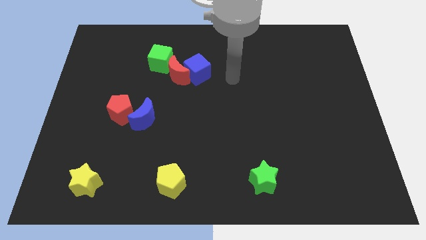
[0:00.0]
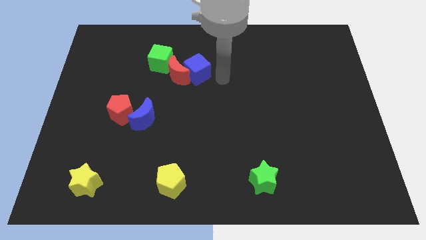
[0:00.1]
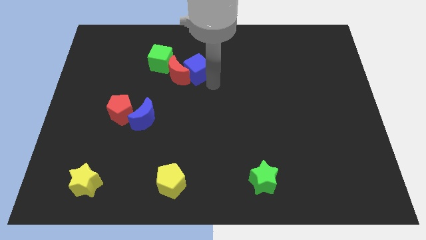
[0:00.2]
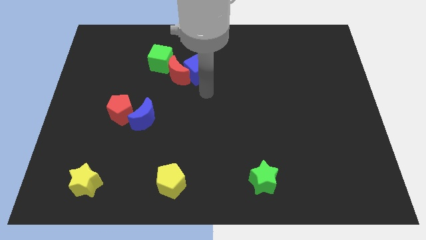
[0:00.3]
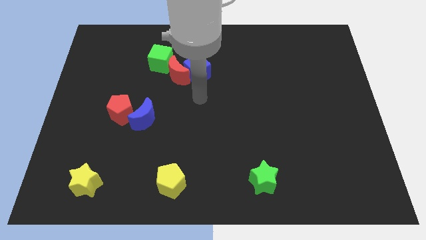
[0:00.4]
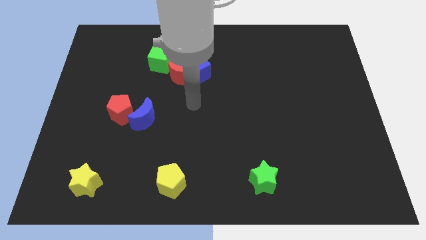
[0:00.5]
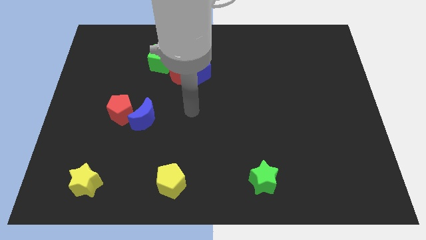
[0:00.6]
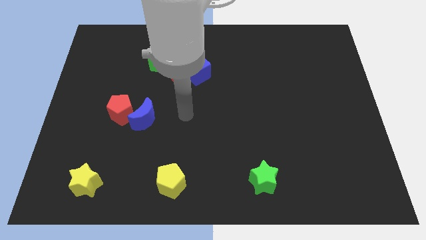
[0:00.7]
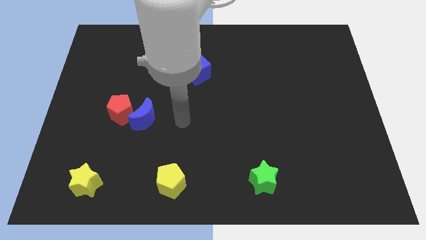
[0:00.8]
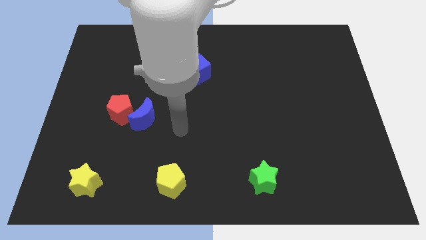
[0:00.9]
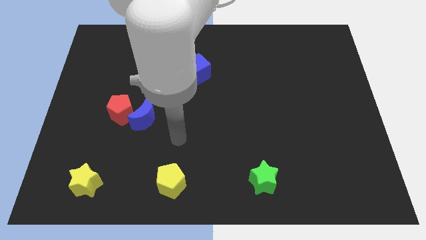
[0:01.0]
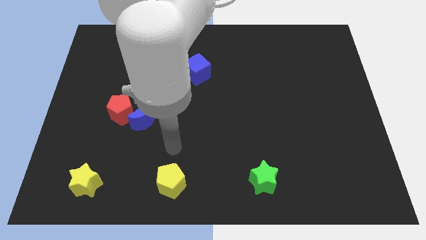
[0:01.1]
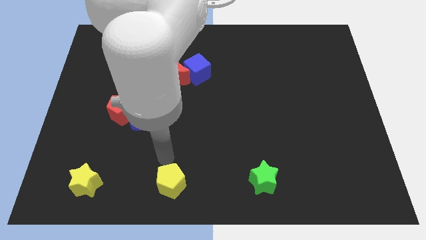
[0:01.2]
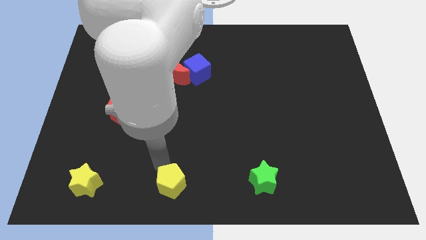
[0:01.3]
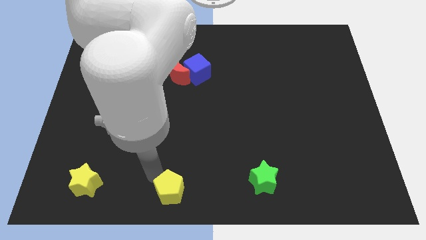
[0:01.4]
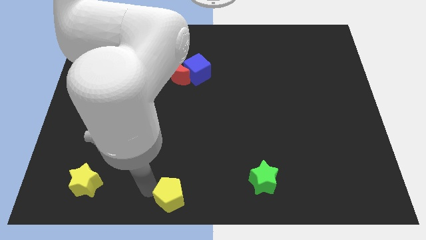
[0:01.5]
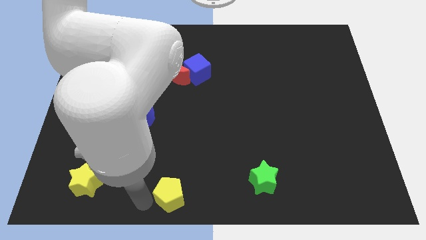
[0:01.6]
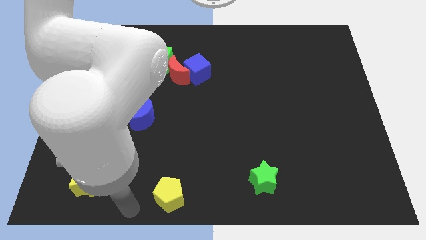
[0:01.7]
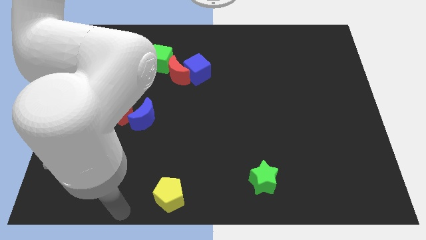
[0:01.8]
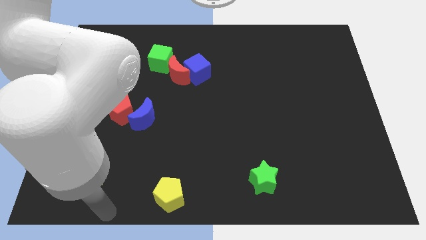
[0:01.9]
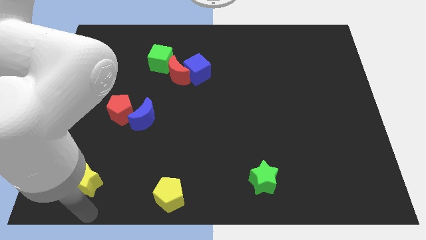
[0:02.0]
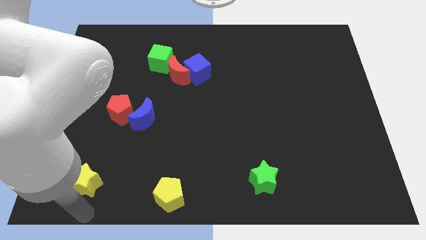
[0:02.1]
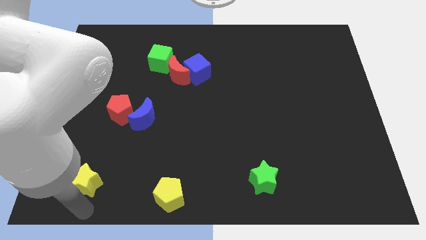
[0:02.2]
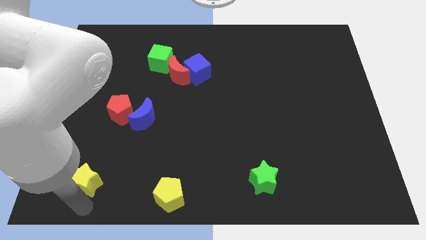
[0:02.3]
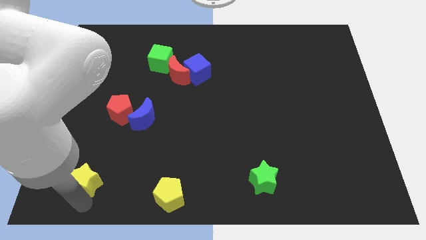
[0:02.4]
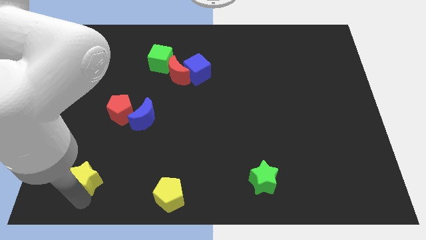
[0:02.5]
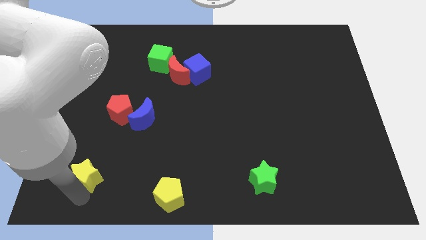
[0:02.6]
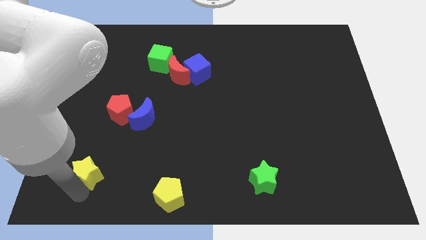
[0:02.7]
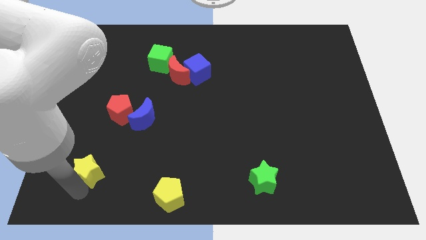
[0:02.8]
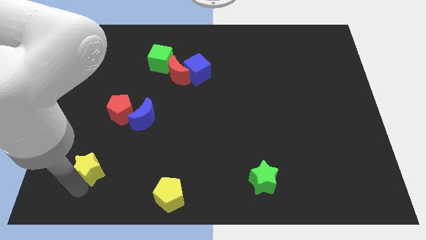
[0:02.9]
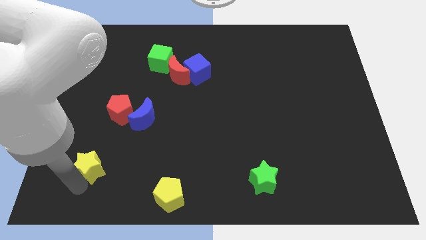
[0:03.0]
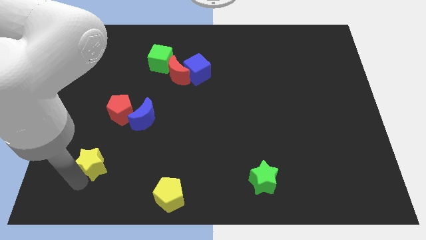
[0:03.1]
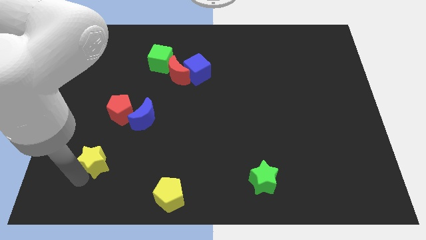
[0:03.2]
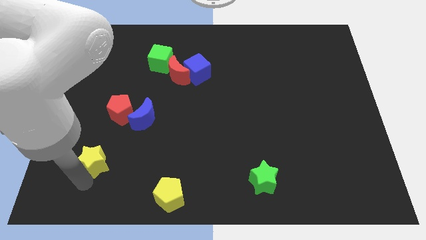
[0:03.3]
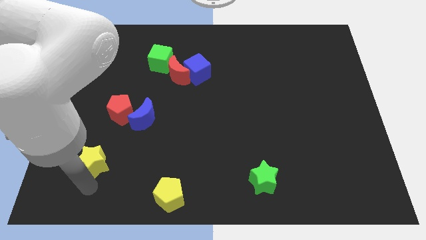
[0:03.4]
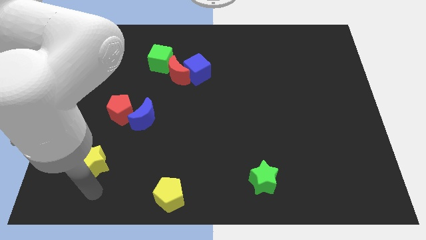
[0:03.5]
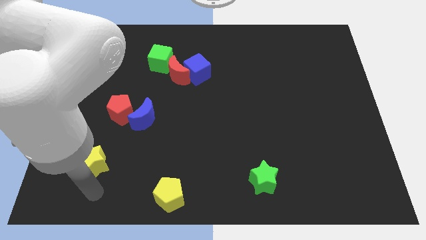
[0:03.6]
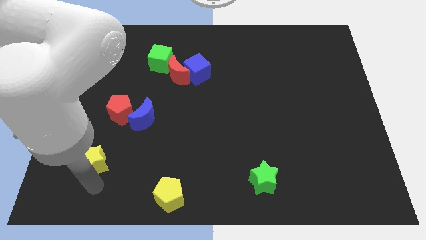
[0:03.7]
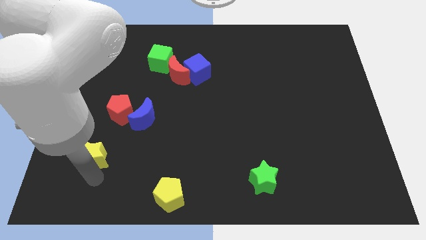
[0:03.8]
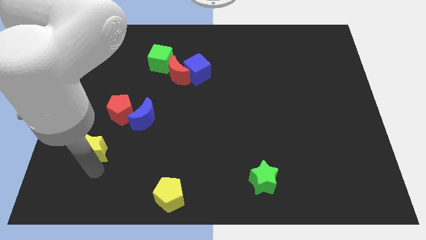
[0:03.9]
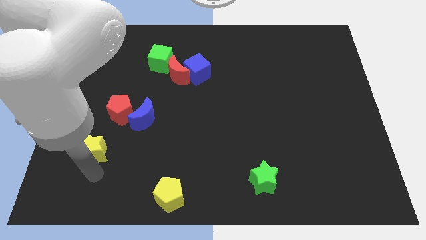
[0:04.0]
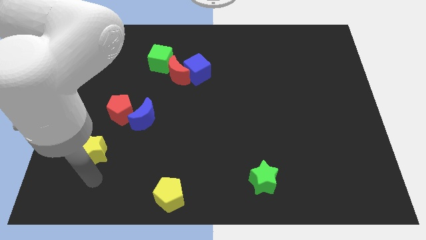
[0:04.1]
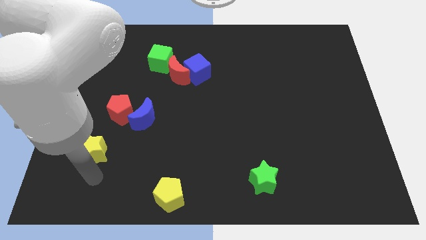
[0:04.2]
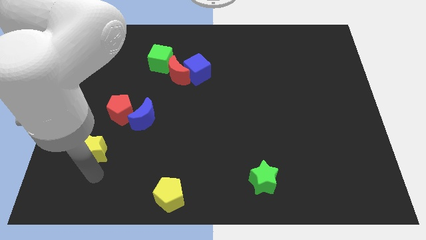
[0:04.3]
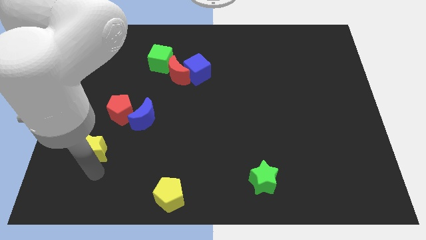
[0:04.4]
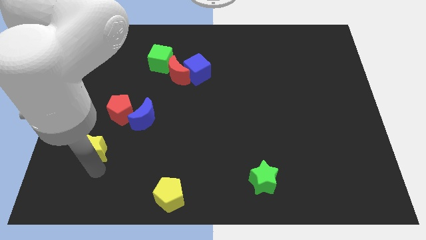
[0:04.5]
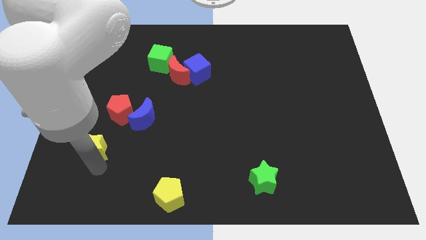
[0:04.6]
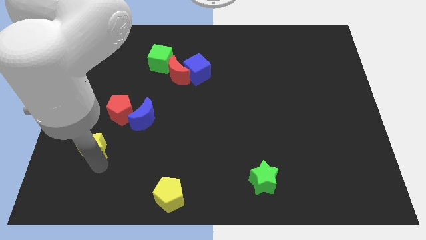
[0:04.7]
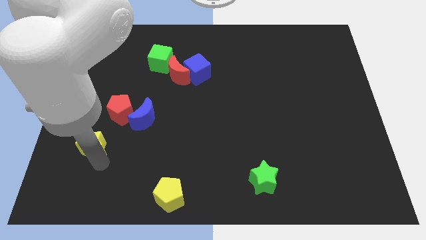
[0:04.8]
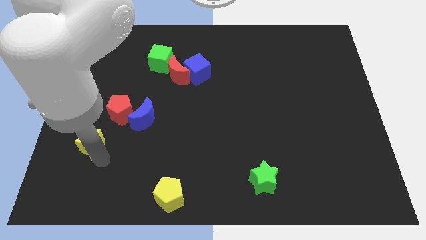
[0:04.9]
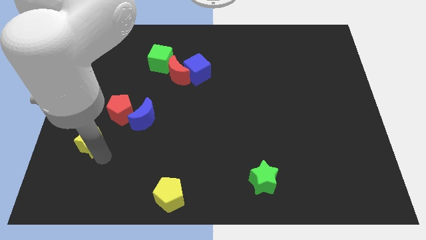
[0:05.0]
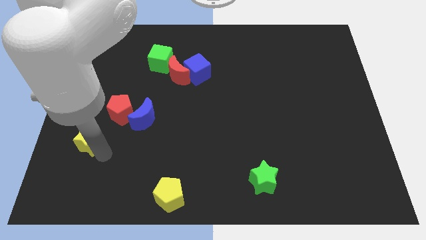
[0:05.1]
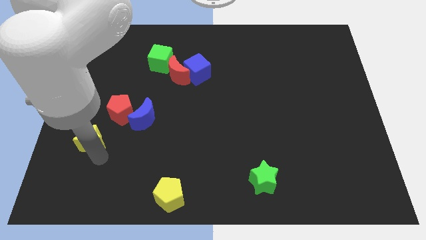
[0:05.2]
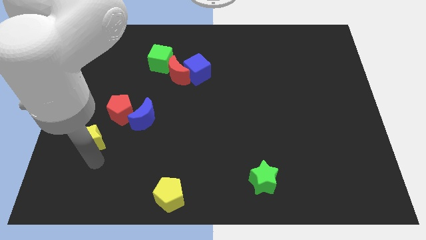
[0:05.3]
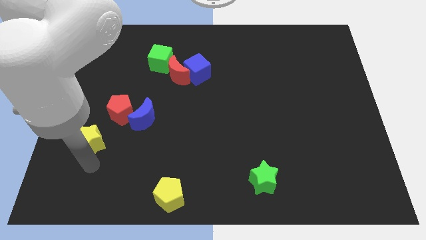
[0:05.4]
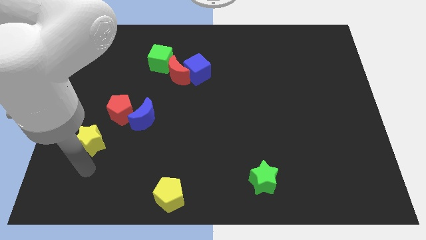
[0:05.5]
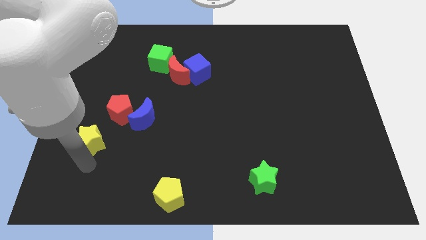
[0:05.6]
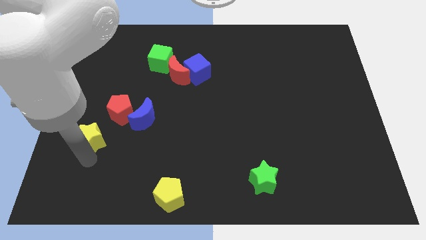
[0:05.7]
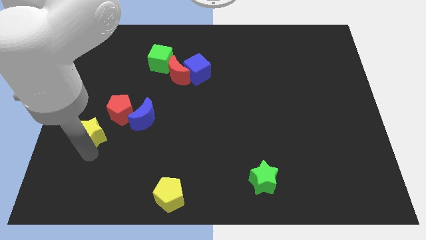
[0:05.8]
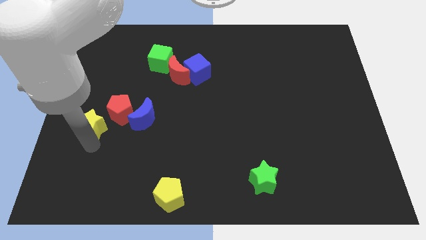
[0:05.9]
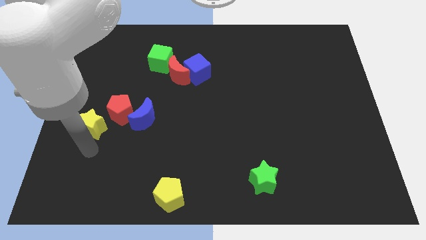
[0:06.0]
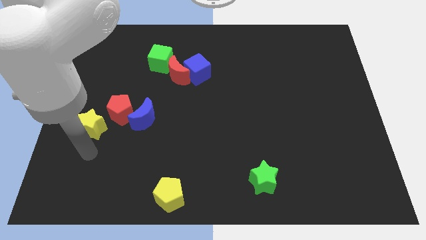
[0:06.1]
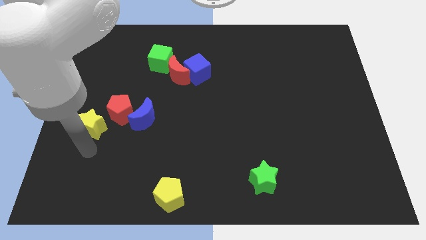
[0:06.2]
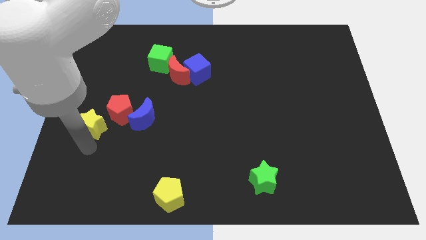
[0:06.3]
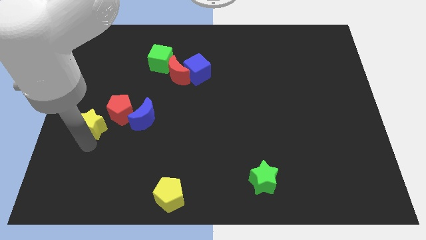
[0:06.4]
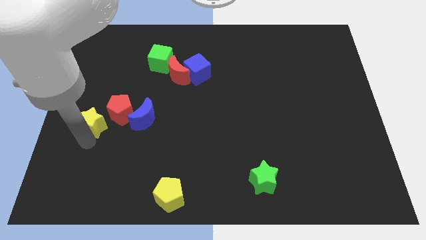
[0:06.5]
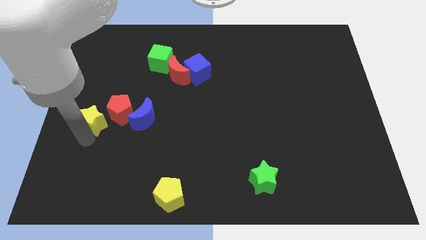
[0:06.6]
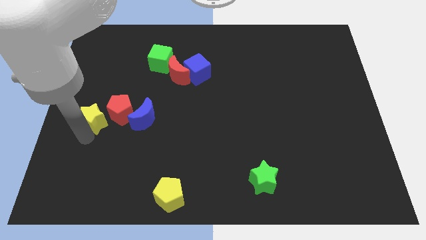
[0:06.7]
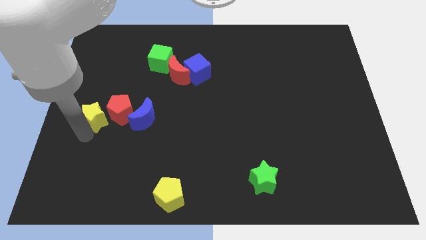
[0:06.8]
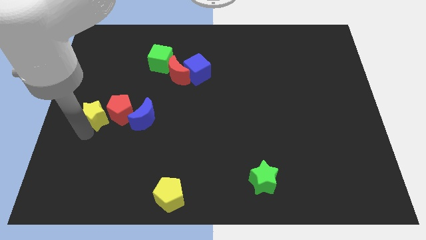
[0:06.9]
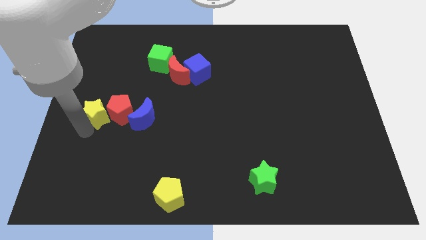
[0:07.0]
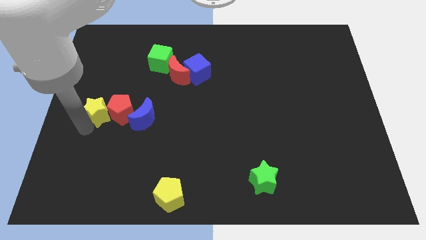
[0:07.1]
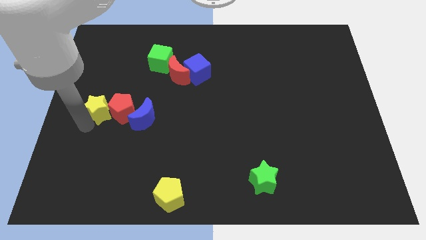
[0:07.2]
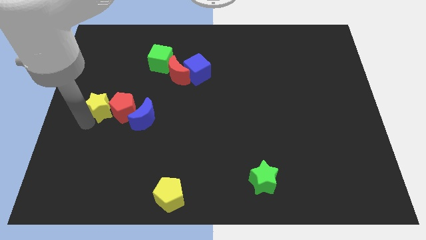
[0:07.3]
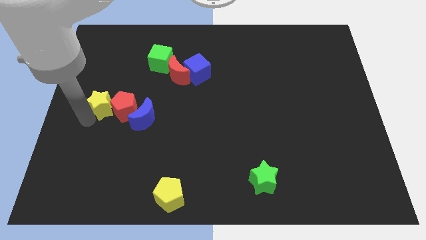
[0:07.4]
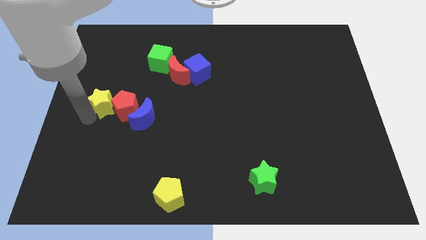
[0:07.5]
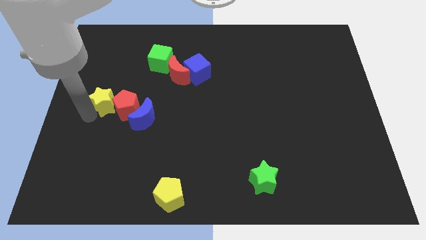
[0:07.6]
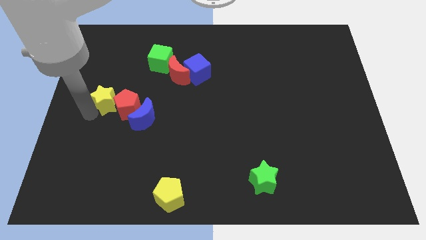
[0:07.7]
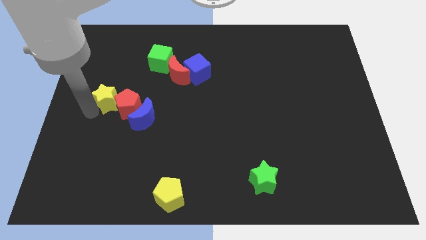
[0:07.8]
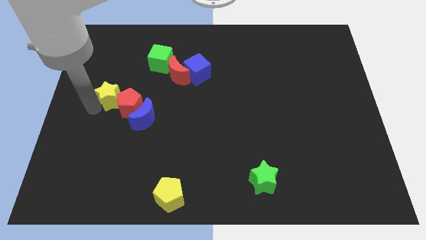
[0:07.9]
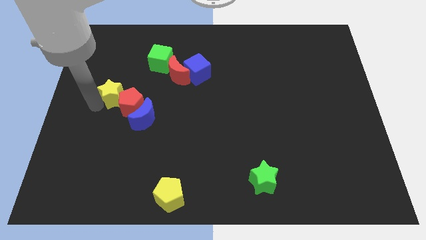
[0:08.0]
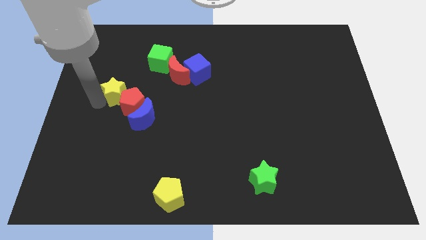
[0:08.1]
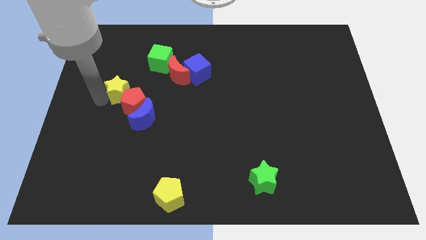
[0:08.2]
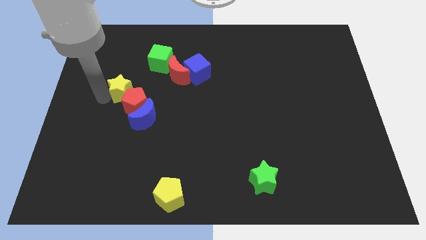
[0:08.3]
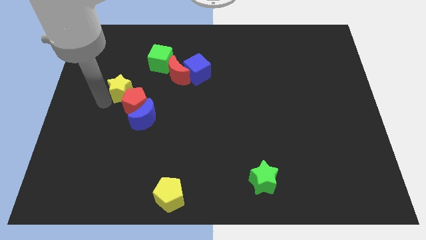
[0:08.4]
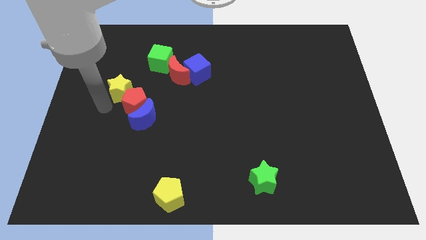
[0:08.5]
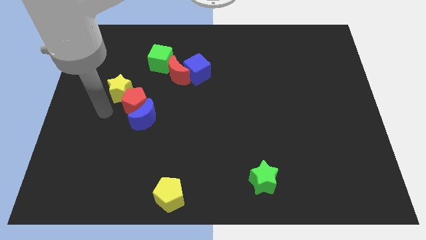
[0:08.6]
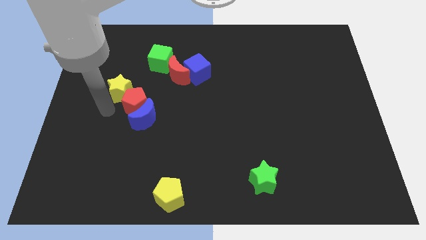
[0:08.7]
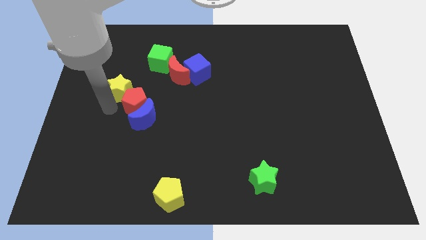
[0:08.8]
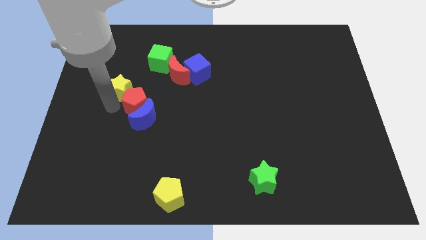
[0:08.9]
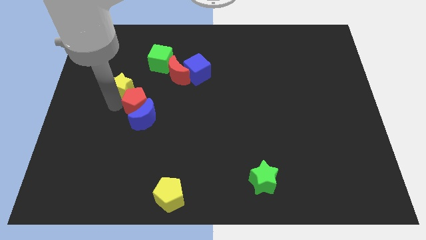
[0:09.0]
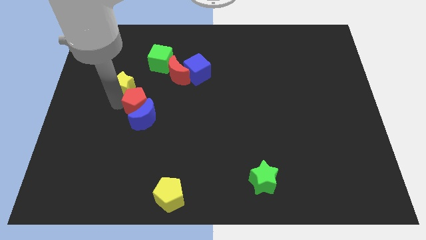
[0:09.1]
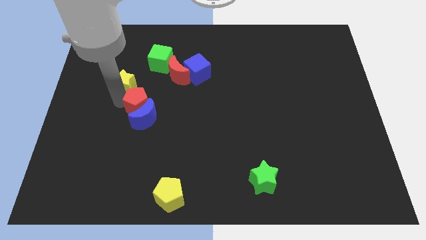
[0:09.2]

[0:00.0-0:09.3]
slide the yellow star left of the red moon
